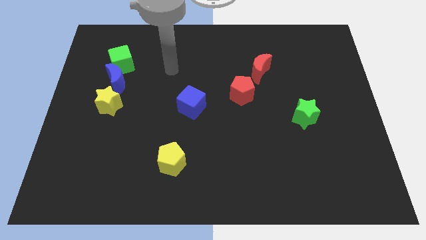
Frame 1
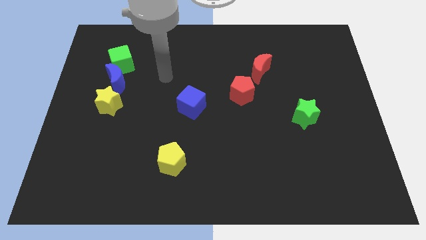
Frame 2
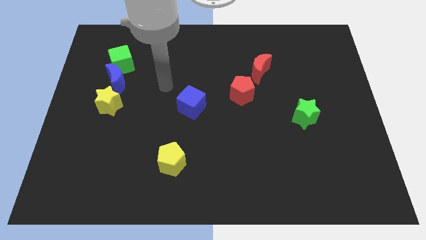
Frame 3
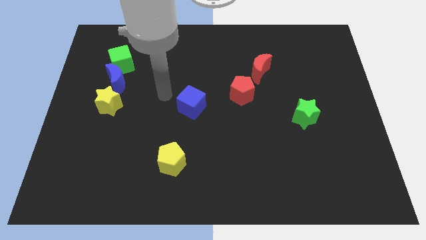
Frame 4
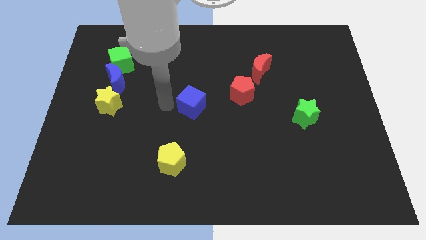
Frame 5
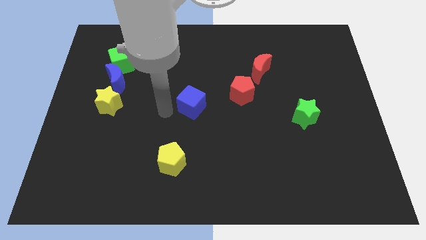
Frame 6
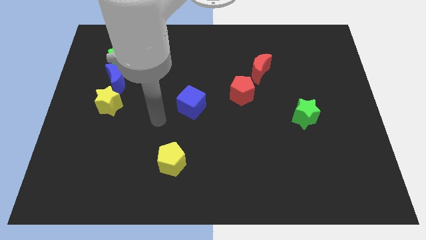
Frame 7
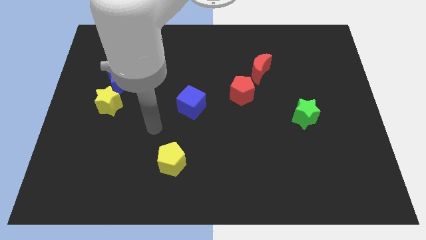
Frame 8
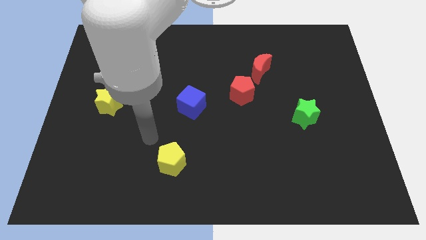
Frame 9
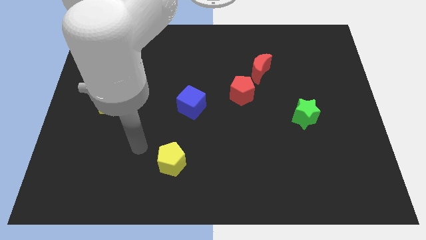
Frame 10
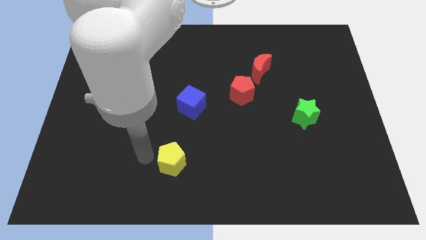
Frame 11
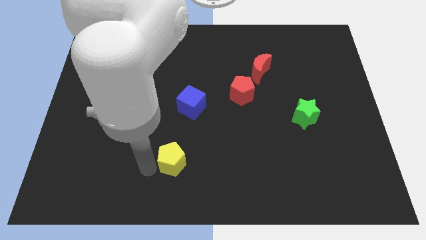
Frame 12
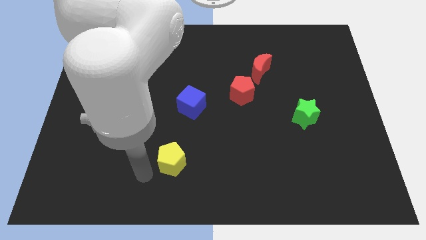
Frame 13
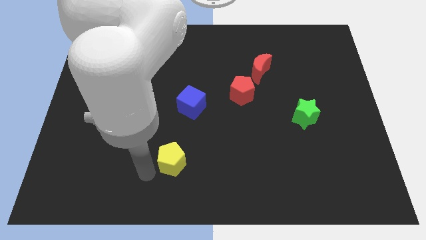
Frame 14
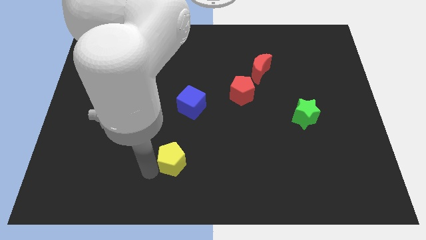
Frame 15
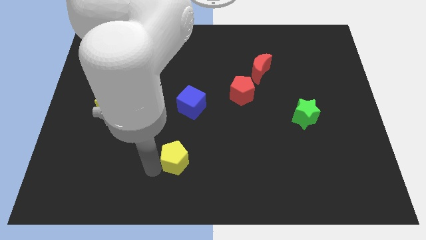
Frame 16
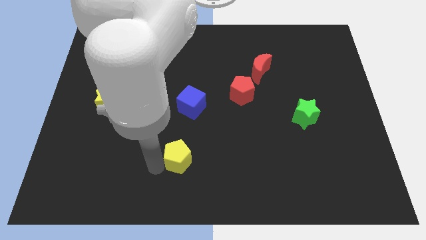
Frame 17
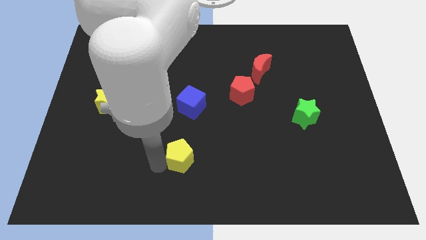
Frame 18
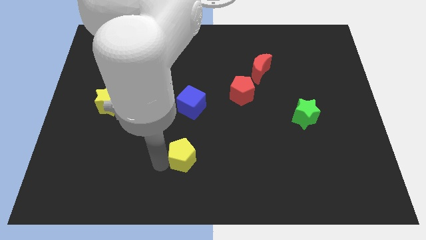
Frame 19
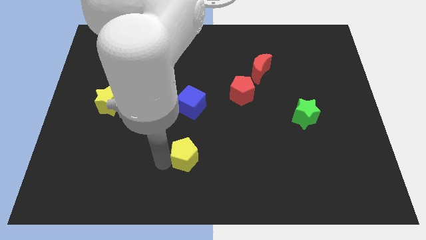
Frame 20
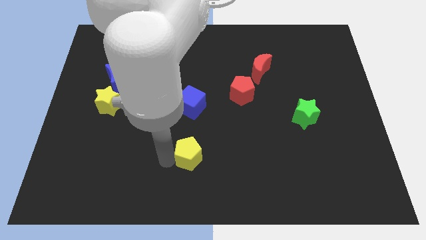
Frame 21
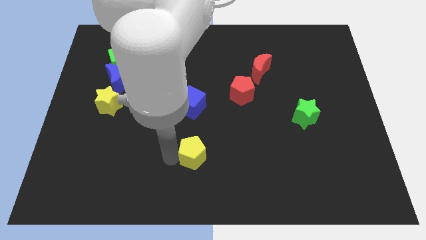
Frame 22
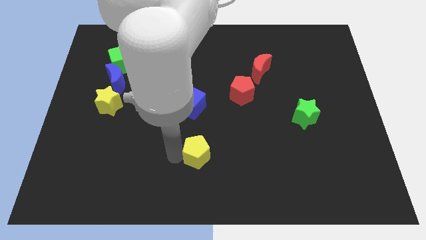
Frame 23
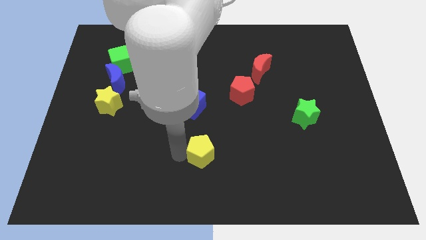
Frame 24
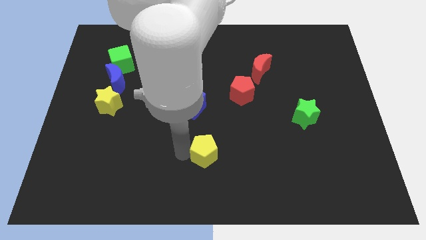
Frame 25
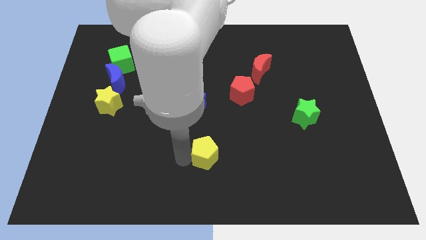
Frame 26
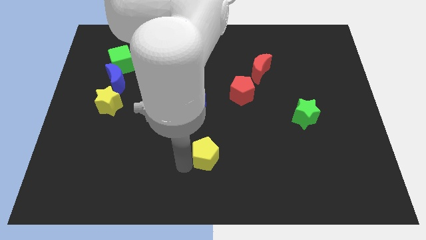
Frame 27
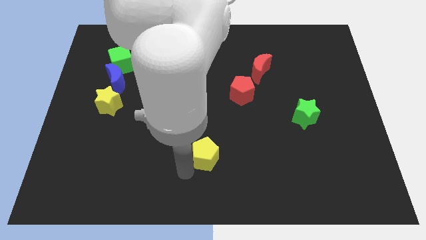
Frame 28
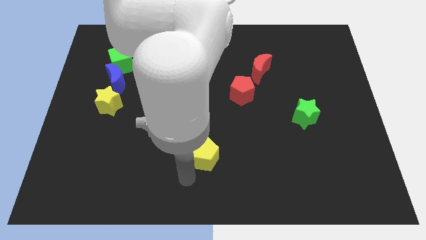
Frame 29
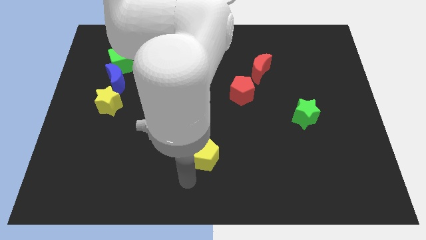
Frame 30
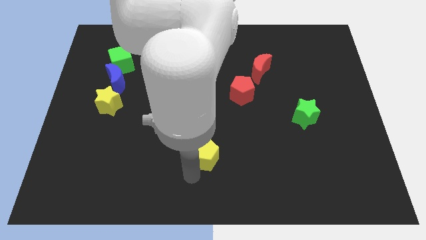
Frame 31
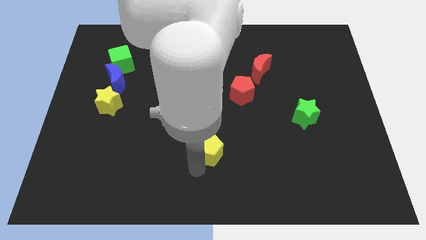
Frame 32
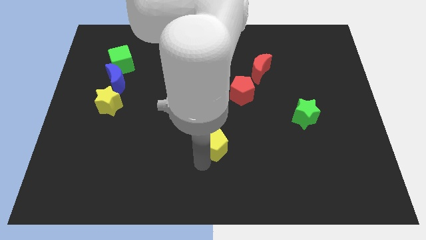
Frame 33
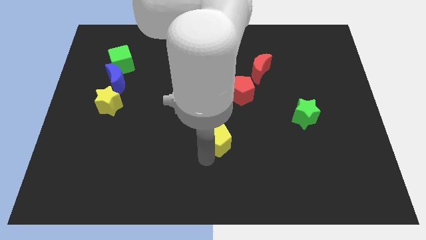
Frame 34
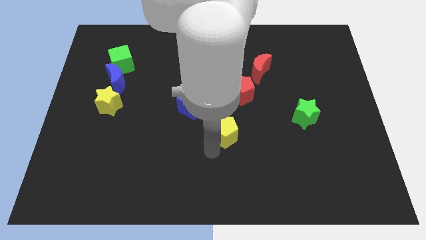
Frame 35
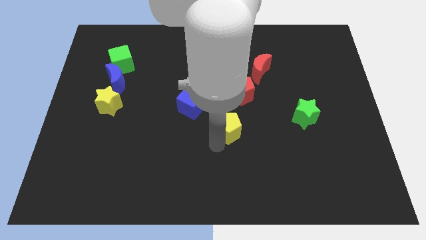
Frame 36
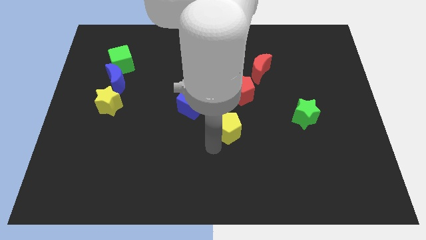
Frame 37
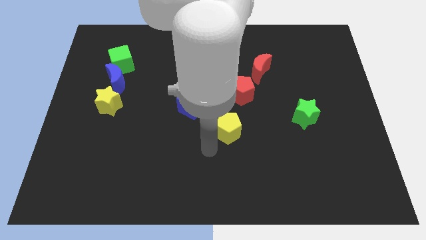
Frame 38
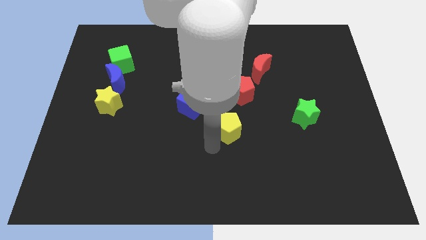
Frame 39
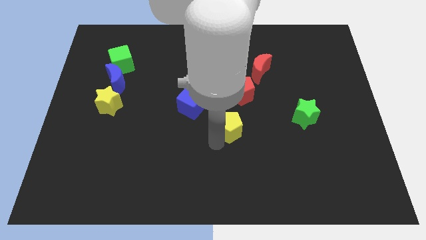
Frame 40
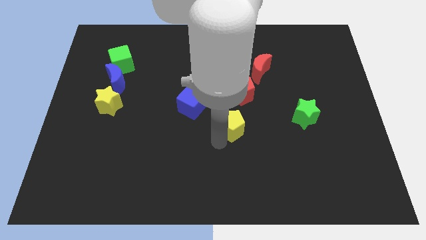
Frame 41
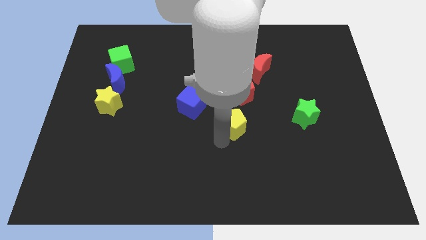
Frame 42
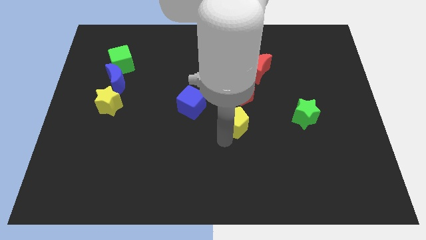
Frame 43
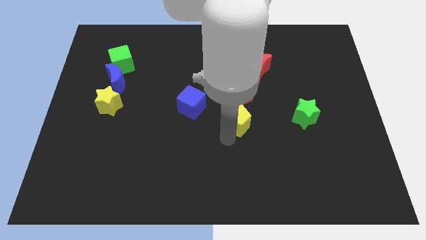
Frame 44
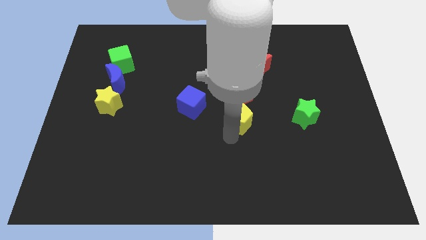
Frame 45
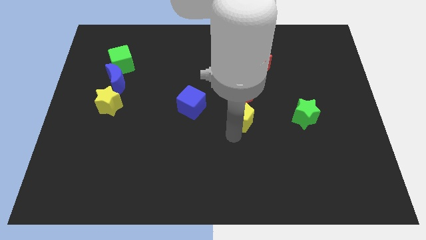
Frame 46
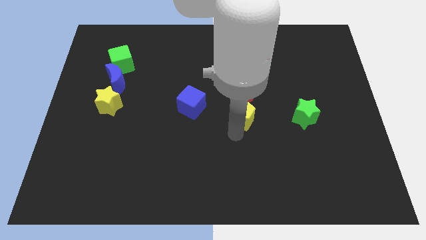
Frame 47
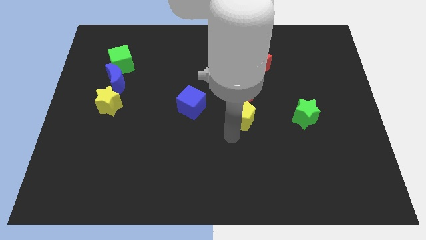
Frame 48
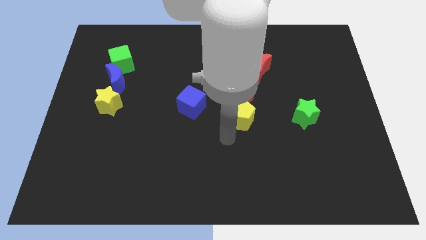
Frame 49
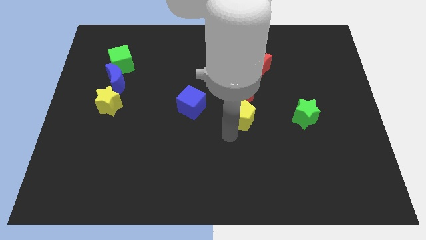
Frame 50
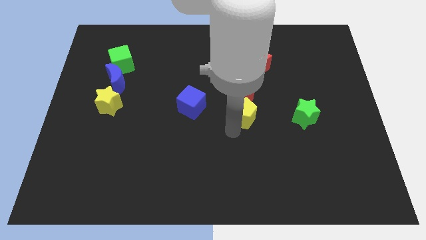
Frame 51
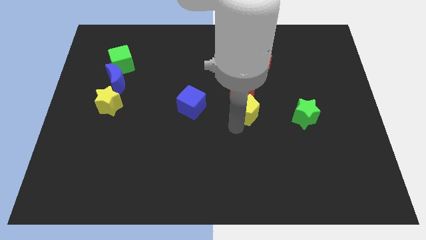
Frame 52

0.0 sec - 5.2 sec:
move the yellow pentagon diagonally upwards and right

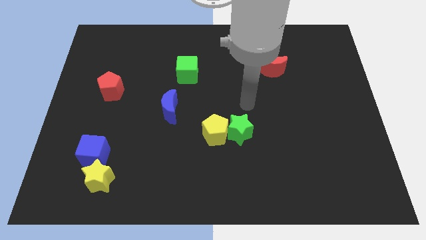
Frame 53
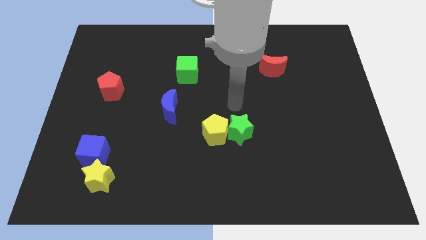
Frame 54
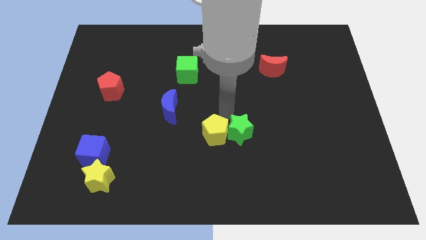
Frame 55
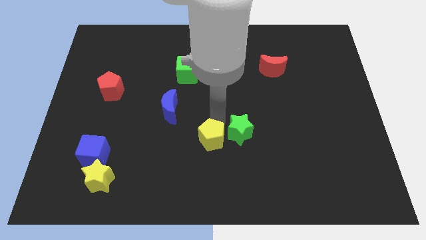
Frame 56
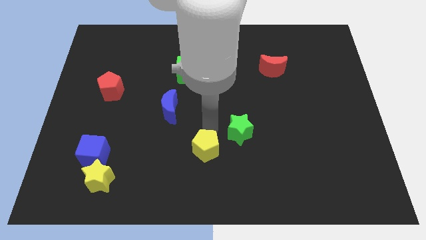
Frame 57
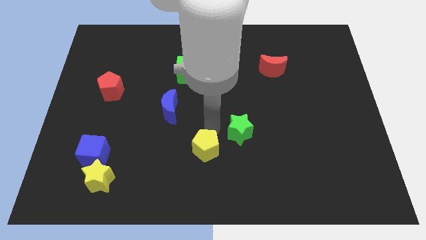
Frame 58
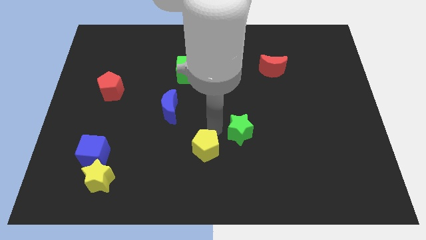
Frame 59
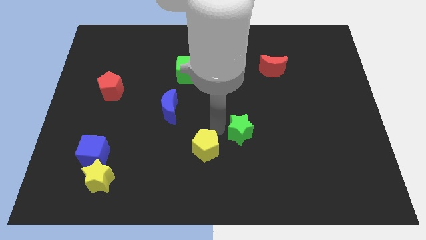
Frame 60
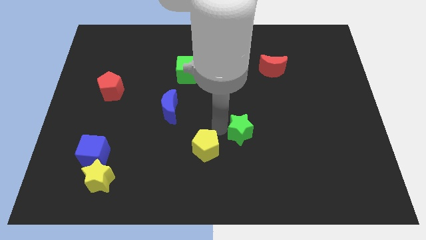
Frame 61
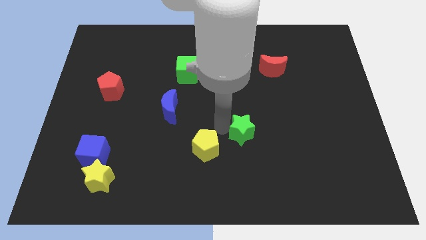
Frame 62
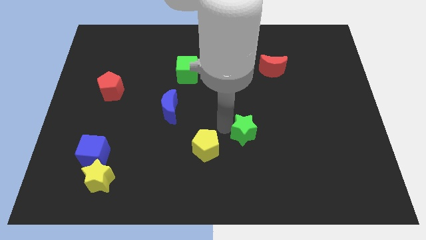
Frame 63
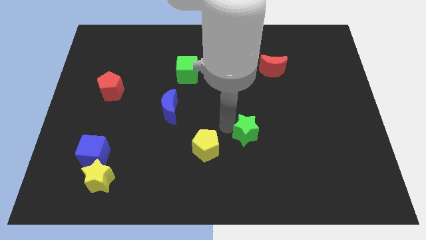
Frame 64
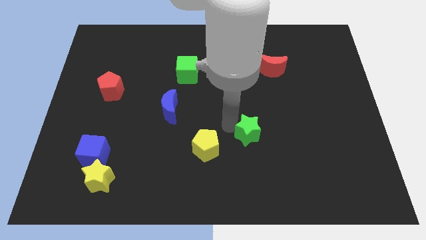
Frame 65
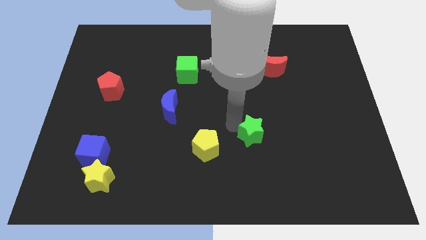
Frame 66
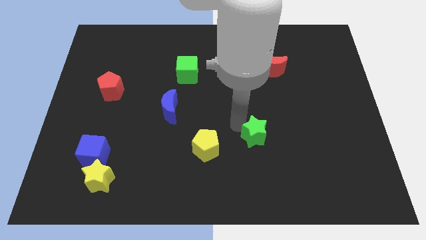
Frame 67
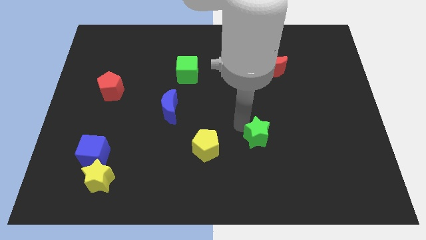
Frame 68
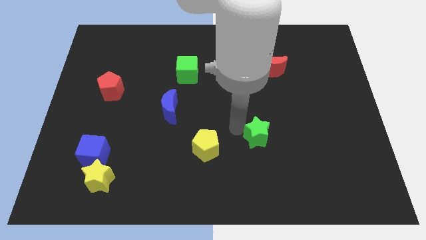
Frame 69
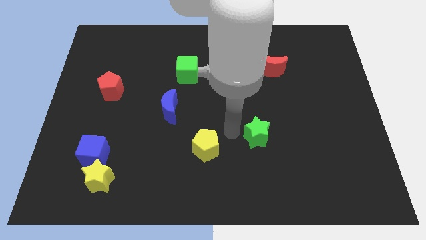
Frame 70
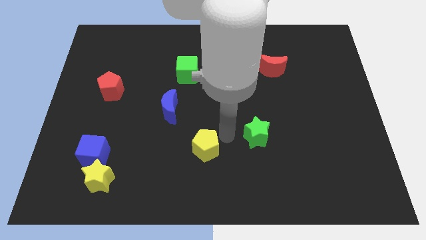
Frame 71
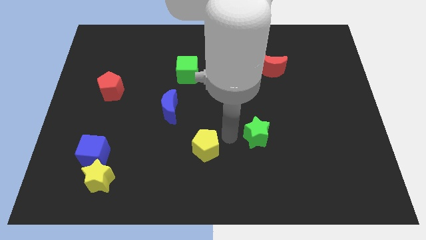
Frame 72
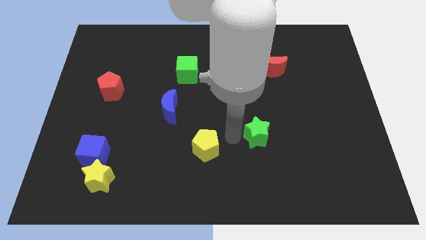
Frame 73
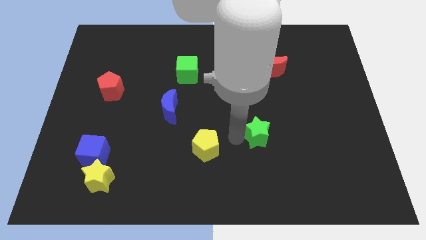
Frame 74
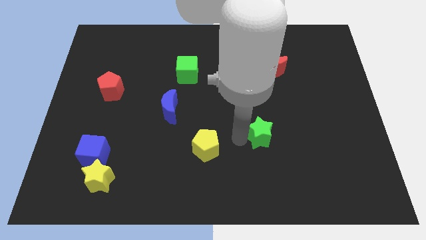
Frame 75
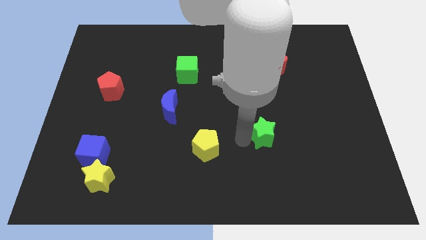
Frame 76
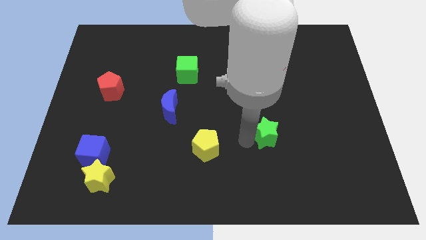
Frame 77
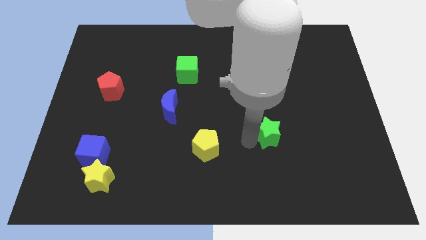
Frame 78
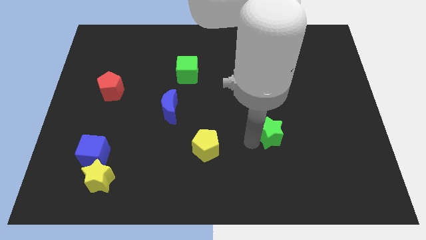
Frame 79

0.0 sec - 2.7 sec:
move the green star a little bit right
